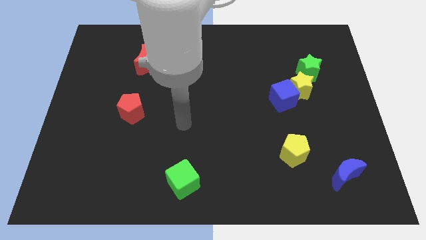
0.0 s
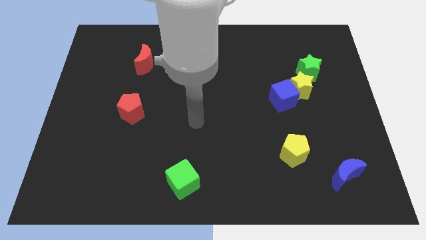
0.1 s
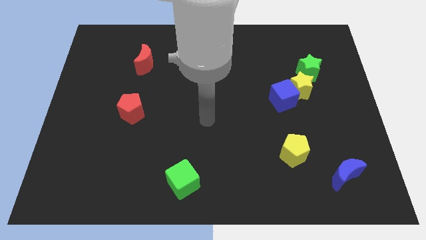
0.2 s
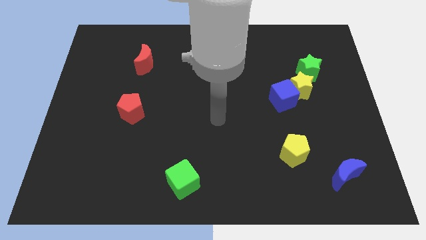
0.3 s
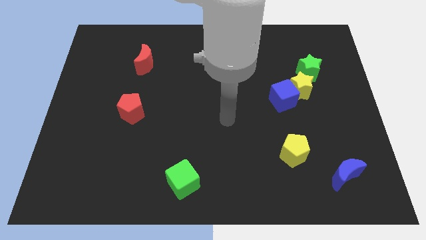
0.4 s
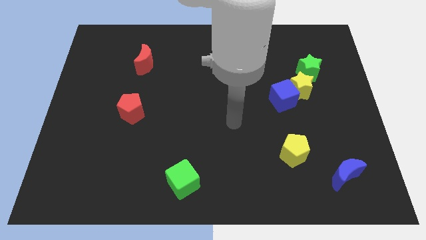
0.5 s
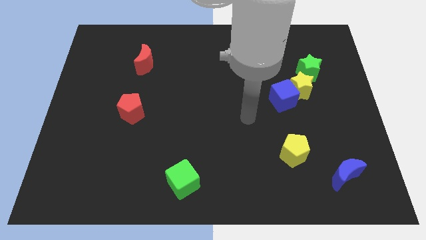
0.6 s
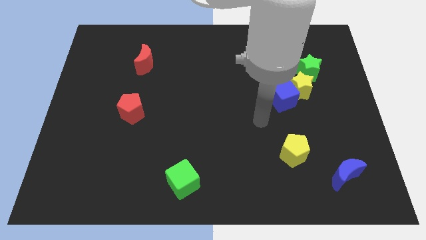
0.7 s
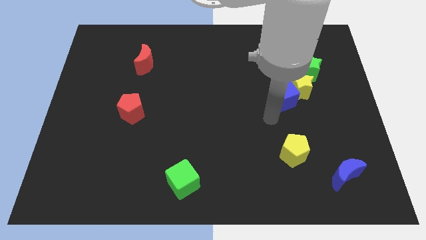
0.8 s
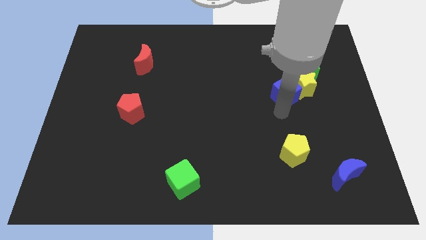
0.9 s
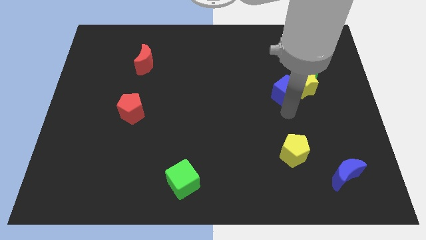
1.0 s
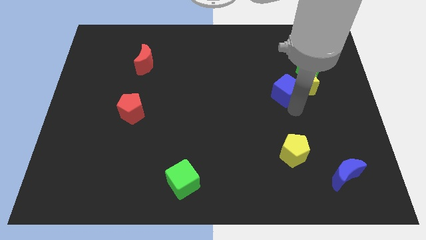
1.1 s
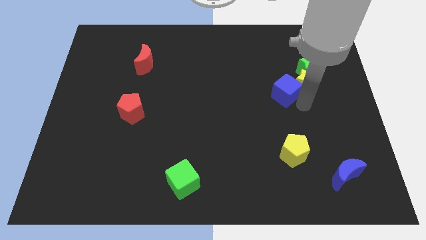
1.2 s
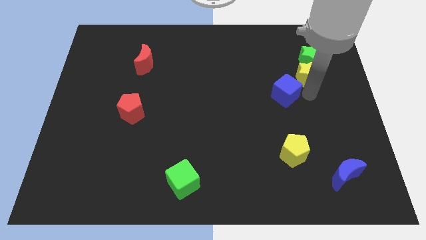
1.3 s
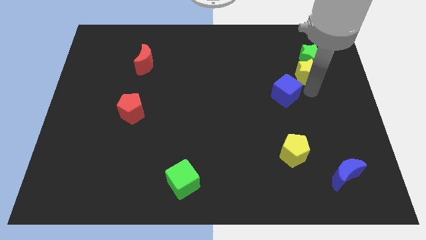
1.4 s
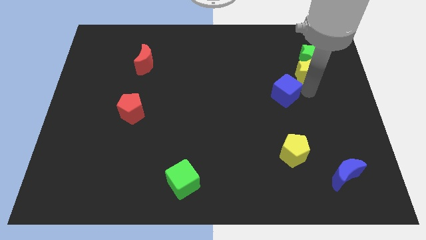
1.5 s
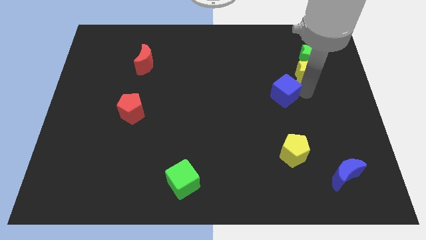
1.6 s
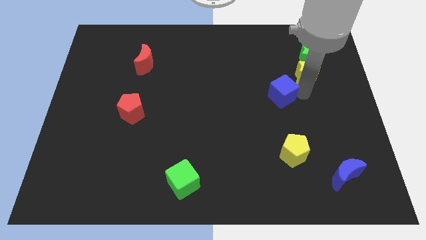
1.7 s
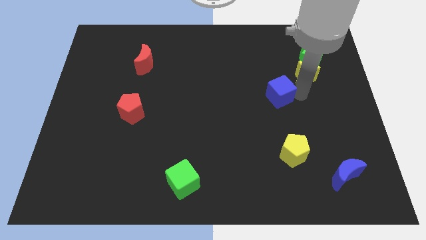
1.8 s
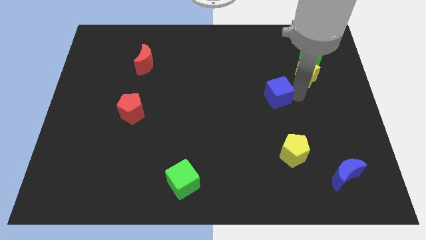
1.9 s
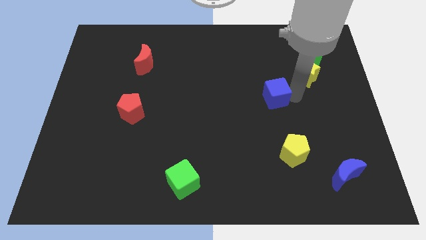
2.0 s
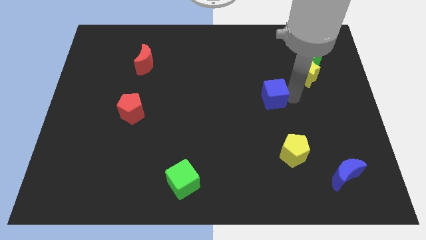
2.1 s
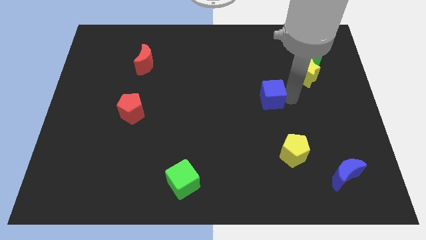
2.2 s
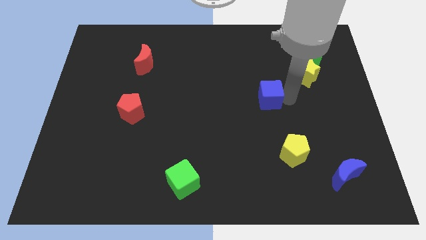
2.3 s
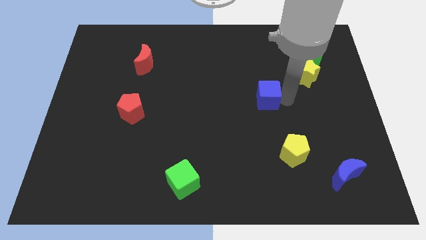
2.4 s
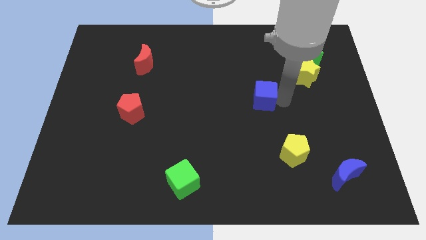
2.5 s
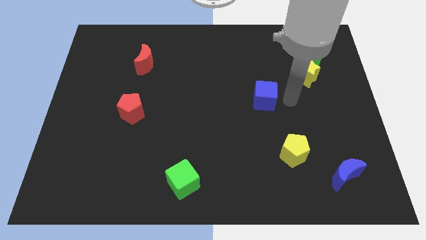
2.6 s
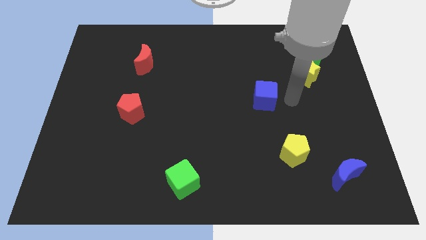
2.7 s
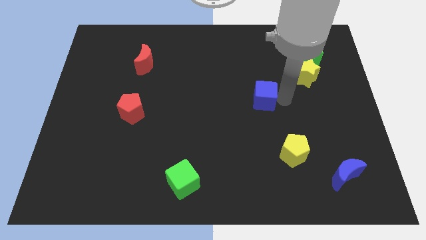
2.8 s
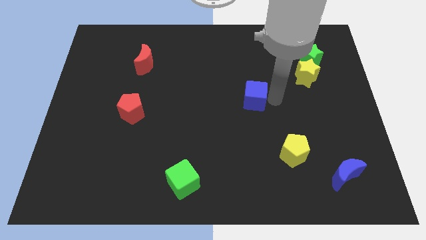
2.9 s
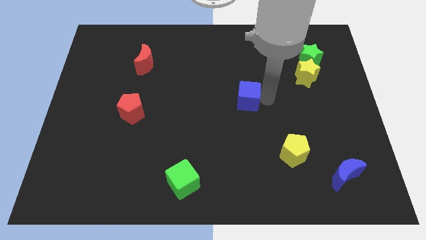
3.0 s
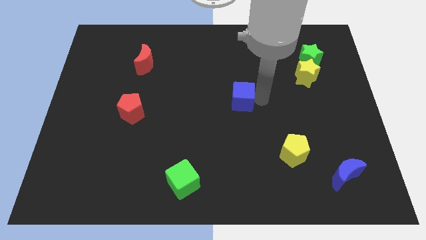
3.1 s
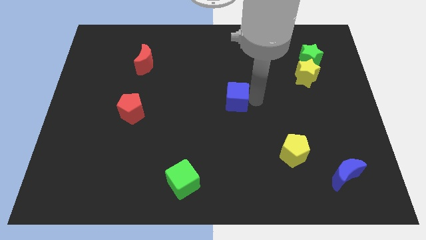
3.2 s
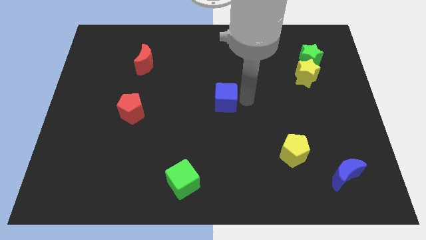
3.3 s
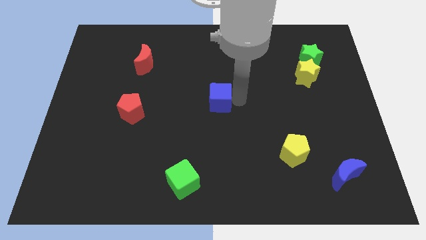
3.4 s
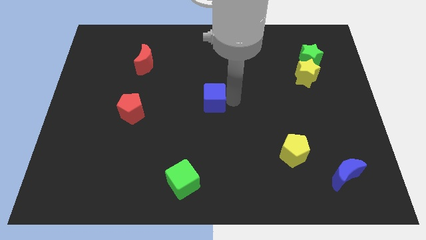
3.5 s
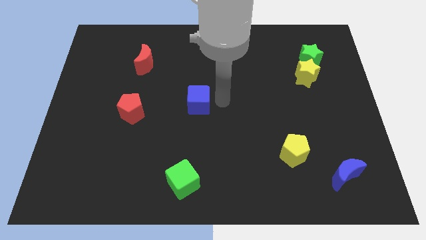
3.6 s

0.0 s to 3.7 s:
move the blue cube to the left

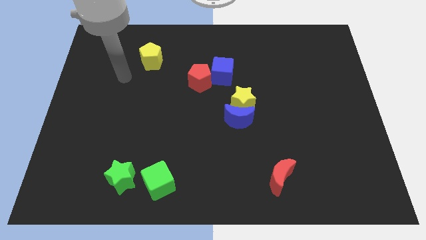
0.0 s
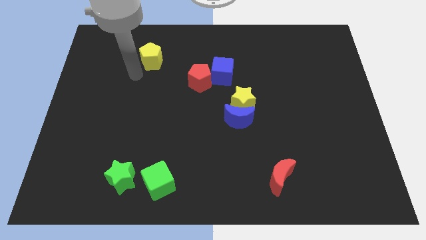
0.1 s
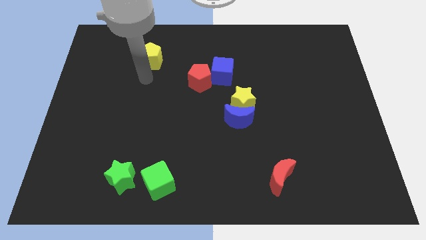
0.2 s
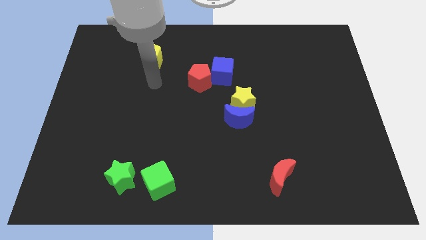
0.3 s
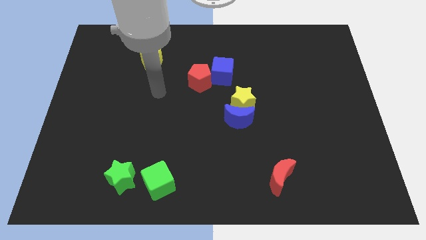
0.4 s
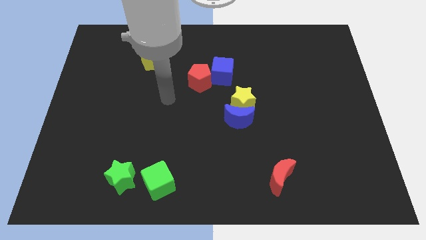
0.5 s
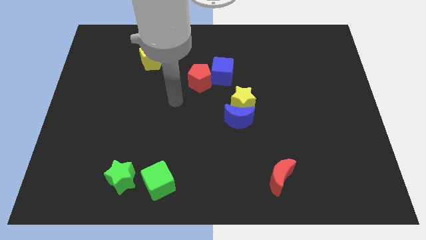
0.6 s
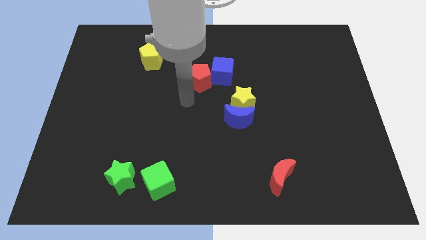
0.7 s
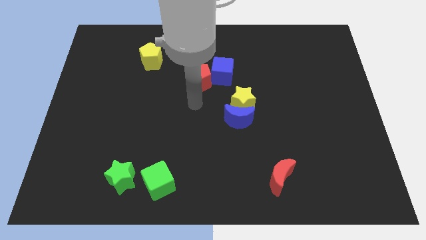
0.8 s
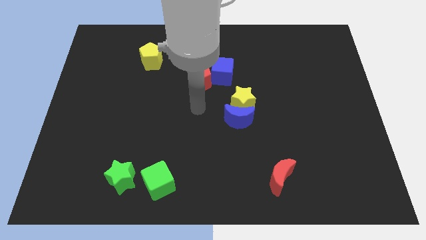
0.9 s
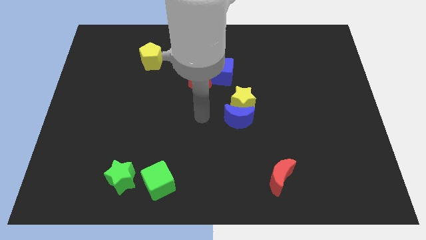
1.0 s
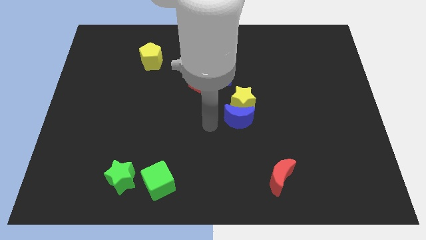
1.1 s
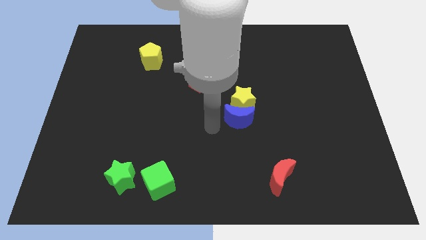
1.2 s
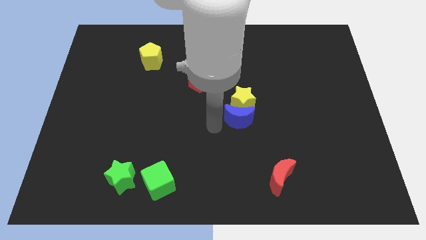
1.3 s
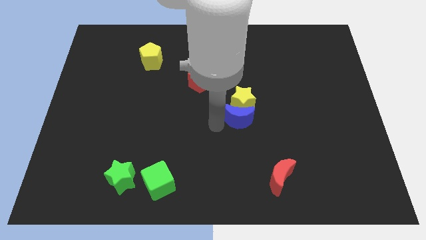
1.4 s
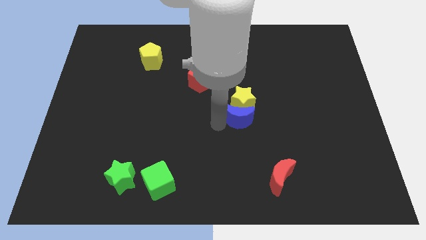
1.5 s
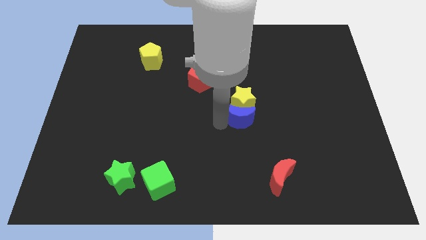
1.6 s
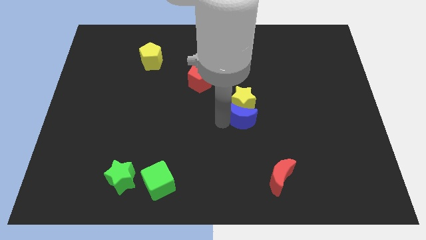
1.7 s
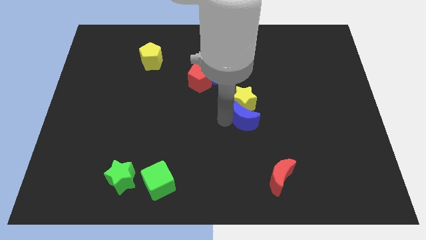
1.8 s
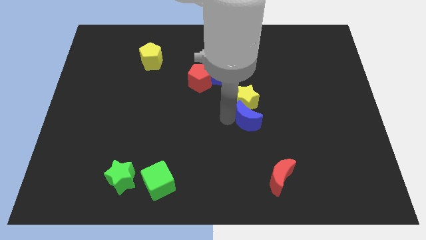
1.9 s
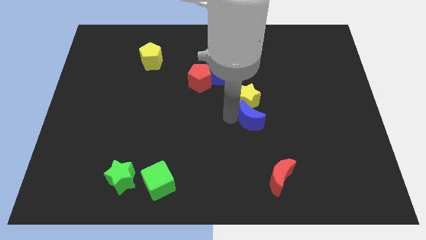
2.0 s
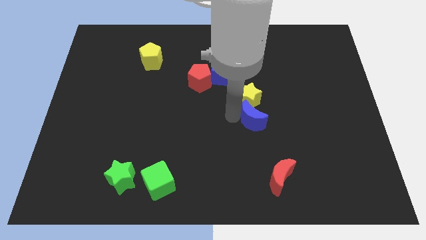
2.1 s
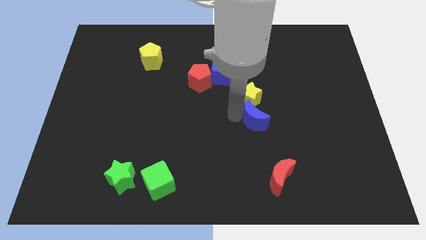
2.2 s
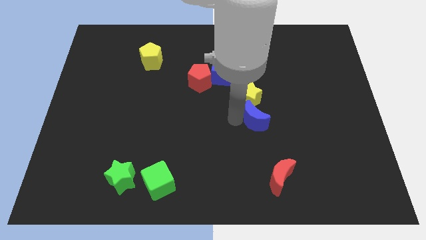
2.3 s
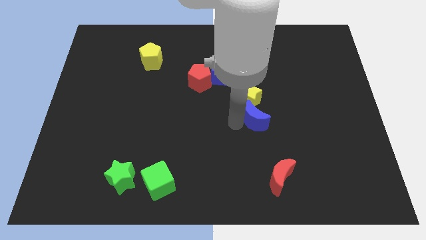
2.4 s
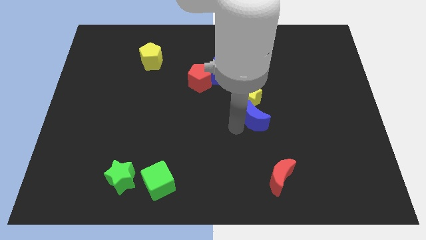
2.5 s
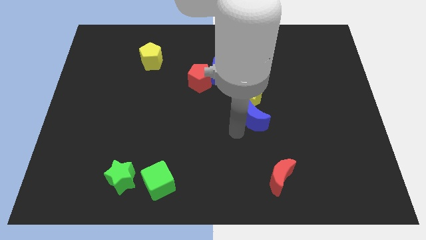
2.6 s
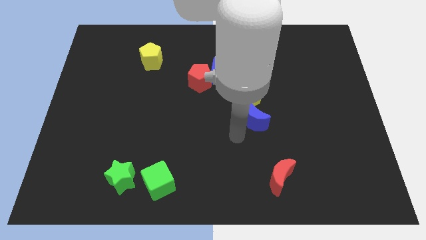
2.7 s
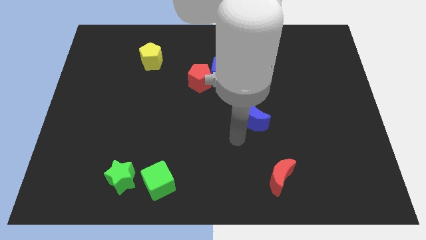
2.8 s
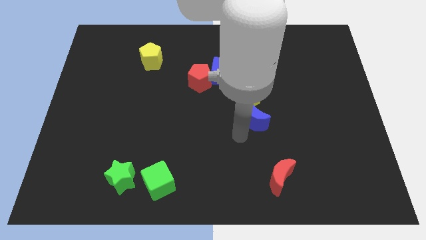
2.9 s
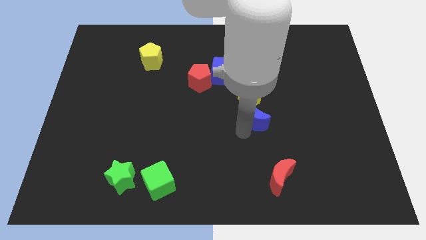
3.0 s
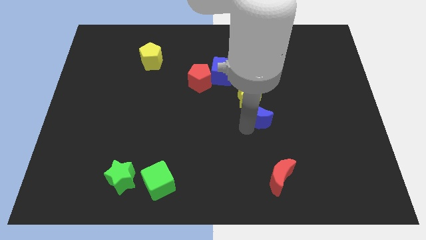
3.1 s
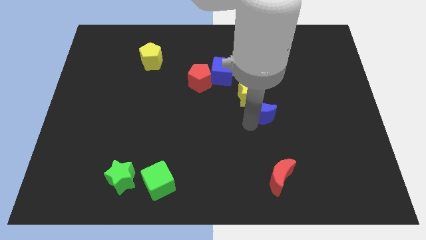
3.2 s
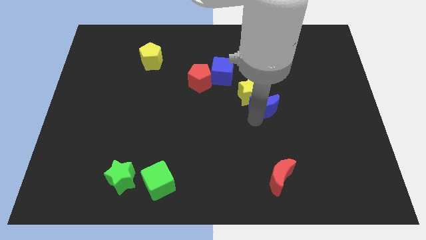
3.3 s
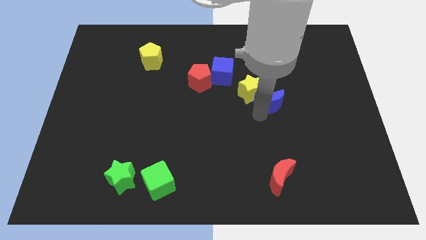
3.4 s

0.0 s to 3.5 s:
push the blue moon slightly upwards and then to the right

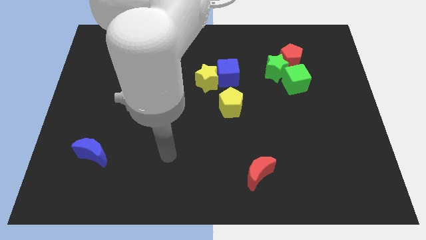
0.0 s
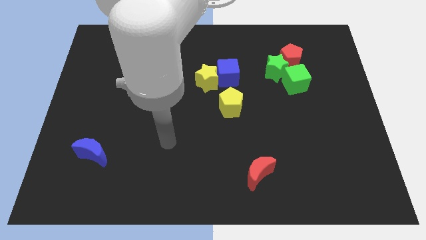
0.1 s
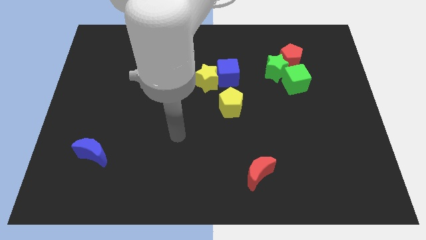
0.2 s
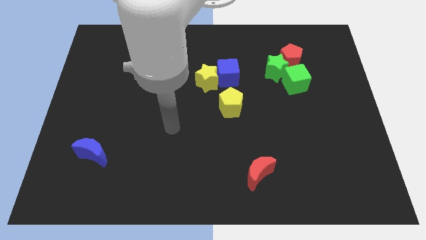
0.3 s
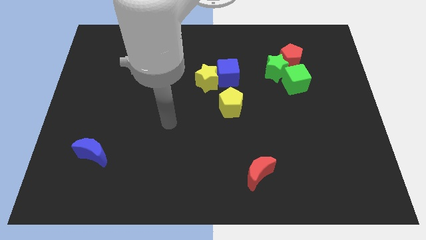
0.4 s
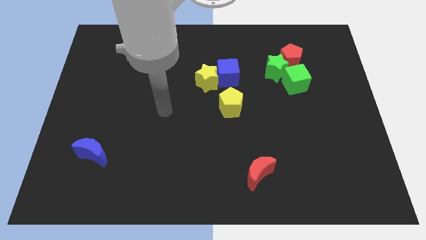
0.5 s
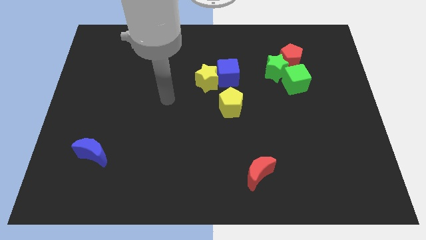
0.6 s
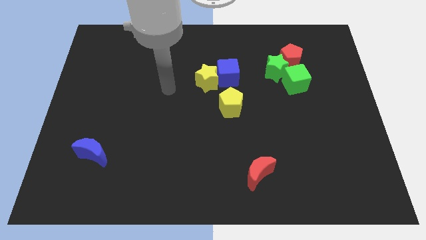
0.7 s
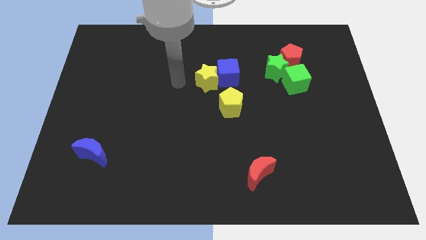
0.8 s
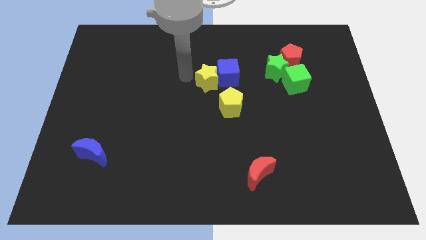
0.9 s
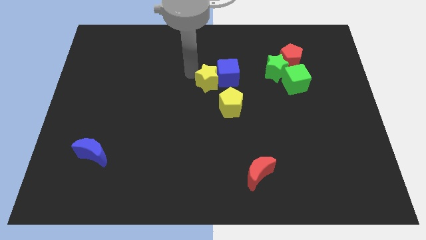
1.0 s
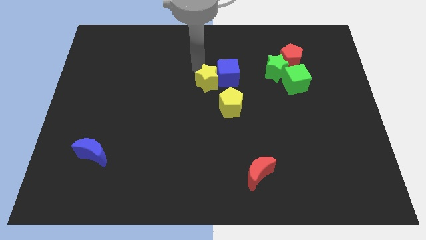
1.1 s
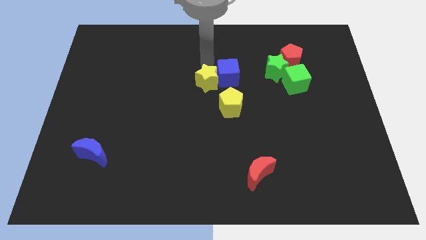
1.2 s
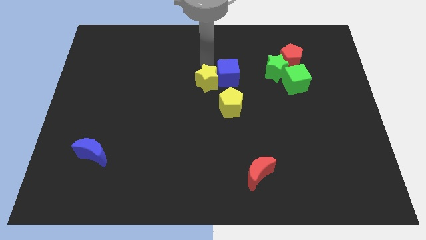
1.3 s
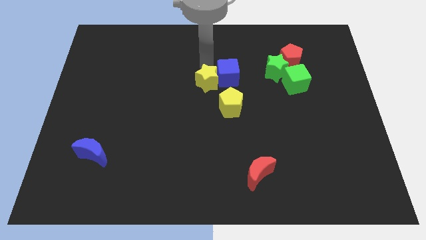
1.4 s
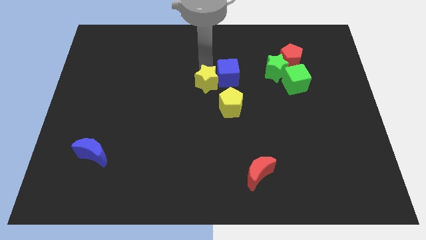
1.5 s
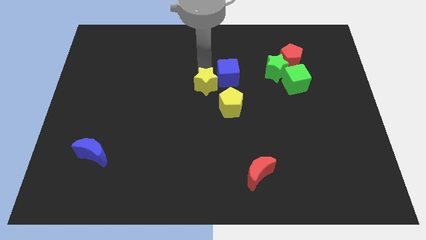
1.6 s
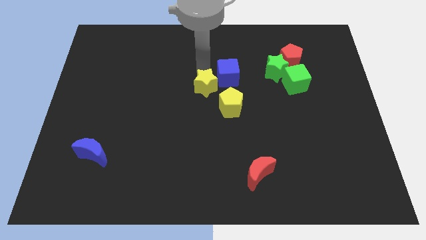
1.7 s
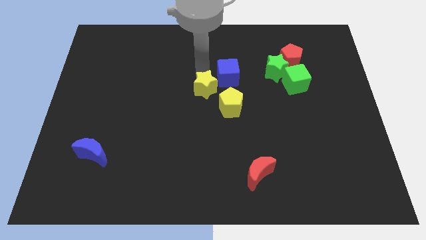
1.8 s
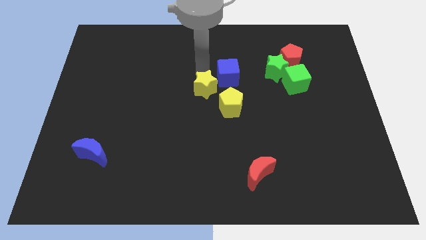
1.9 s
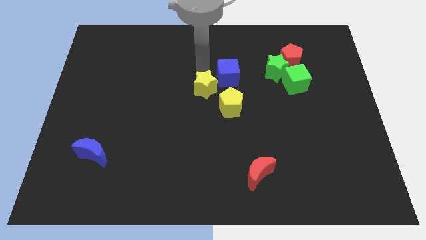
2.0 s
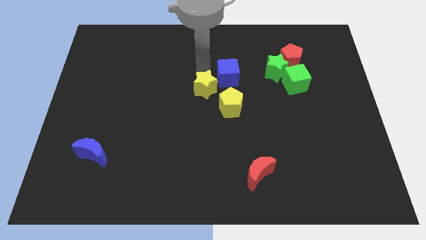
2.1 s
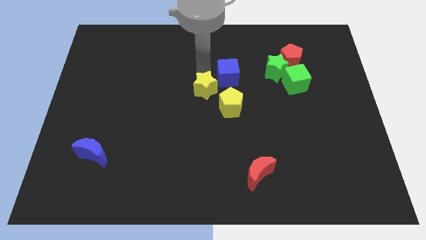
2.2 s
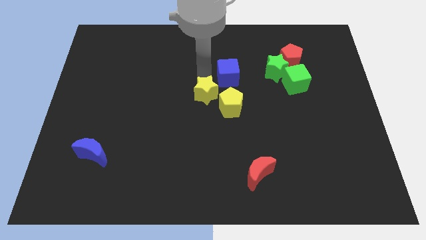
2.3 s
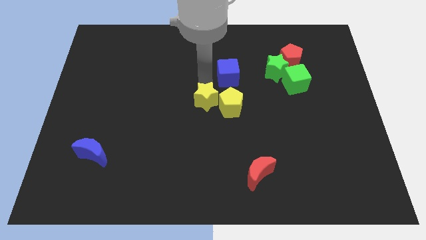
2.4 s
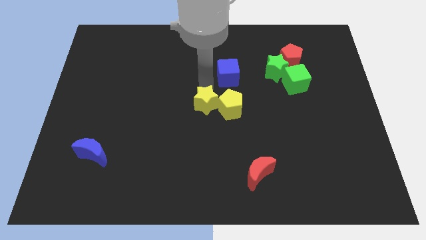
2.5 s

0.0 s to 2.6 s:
slide the yellow star downwards a little
